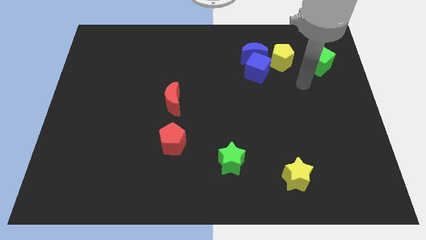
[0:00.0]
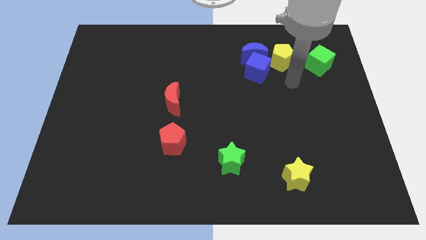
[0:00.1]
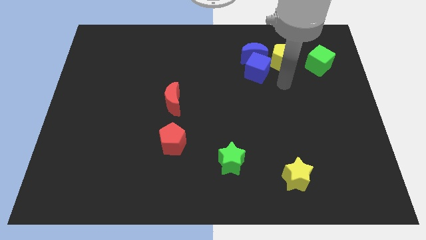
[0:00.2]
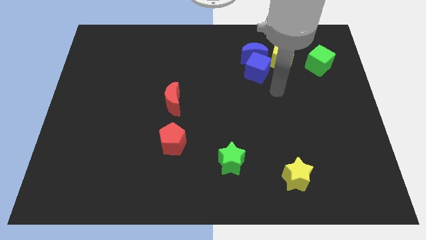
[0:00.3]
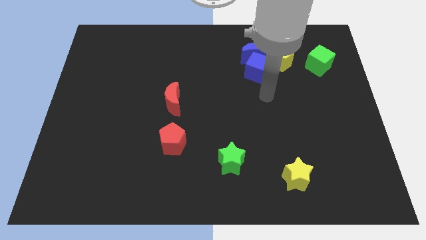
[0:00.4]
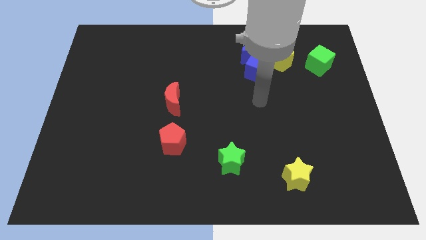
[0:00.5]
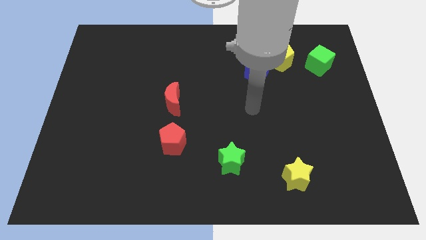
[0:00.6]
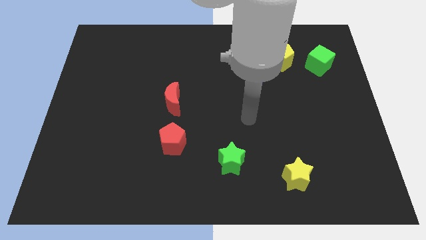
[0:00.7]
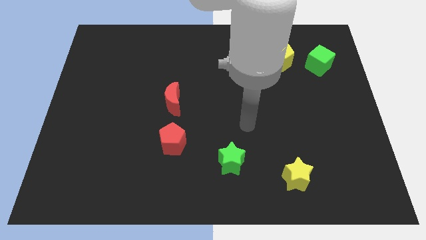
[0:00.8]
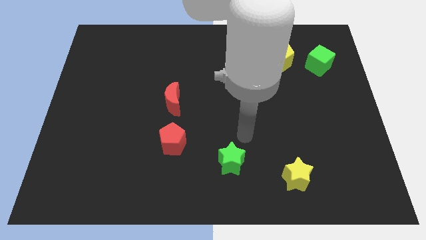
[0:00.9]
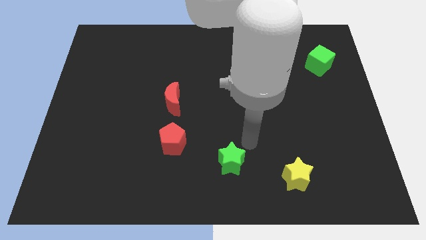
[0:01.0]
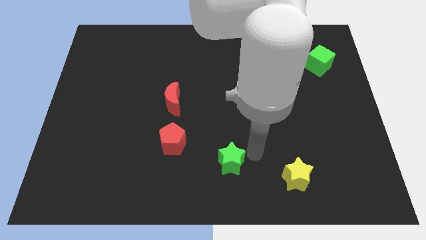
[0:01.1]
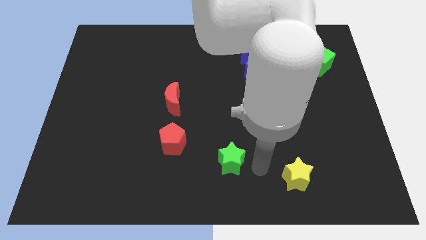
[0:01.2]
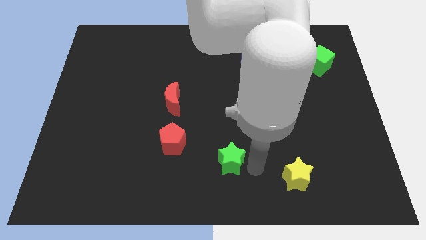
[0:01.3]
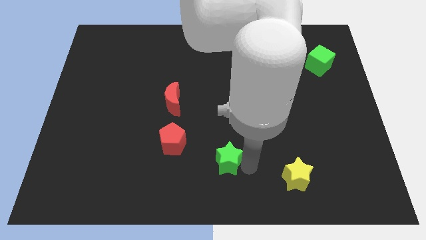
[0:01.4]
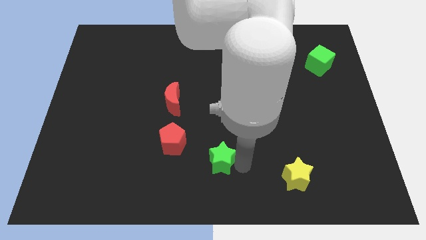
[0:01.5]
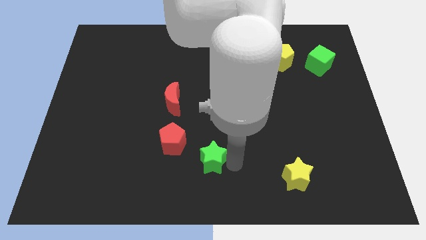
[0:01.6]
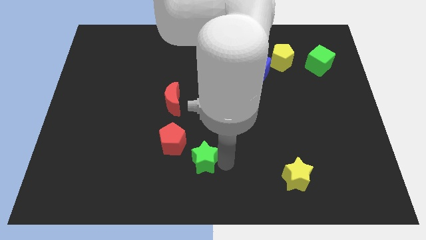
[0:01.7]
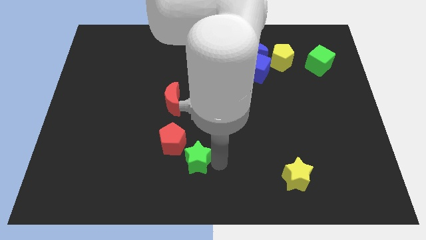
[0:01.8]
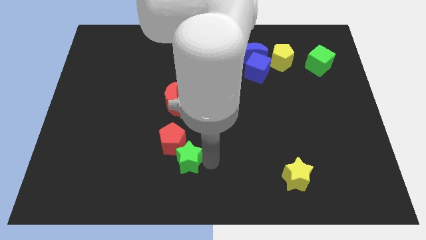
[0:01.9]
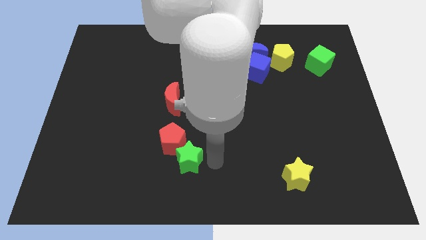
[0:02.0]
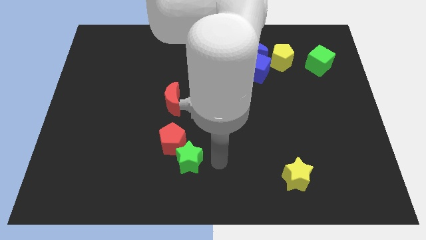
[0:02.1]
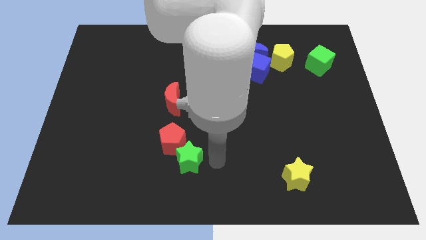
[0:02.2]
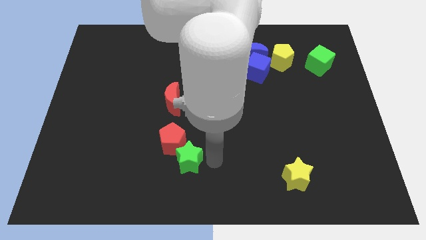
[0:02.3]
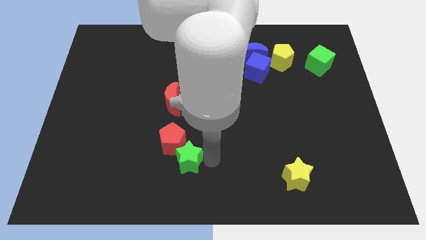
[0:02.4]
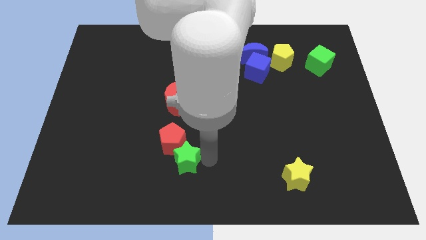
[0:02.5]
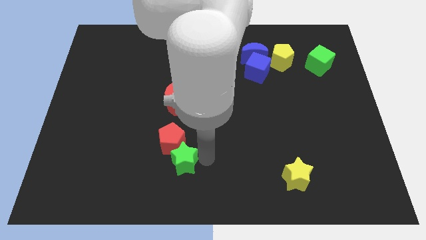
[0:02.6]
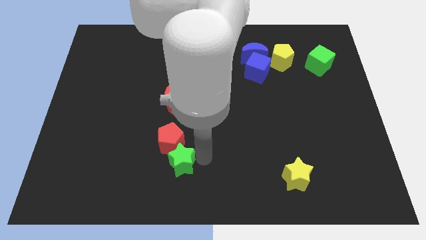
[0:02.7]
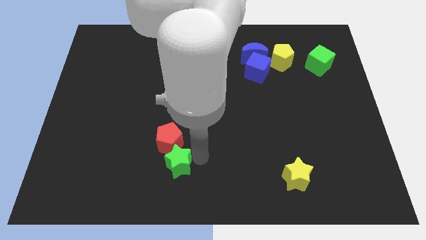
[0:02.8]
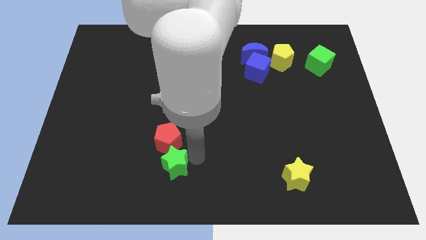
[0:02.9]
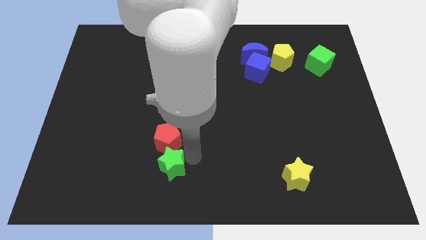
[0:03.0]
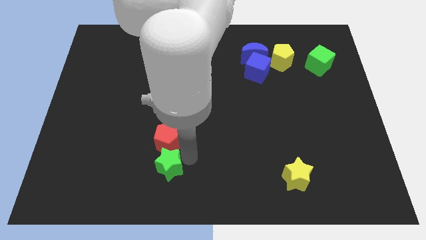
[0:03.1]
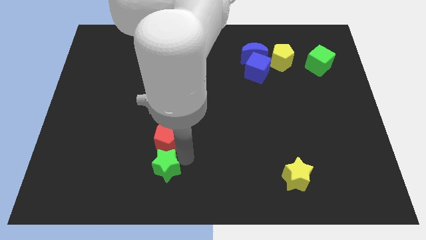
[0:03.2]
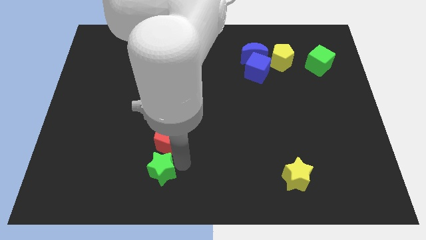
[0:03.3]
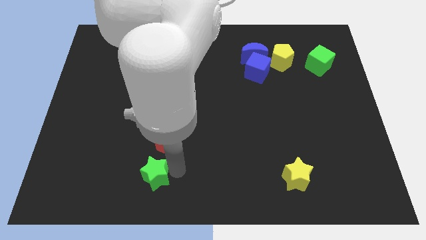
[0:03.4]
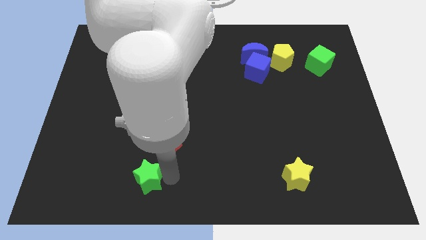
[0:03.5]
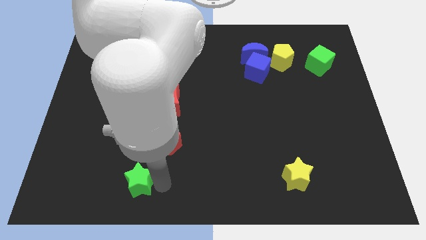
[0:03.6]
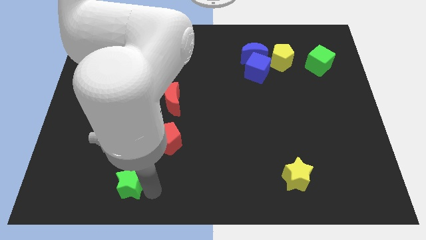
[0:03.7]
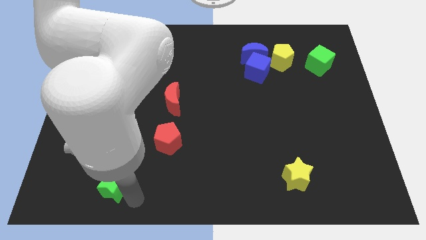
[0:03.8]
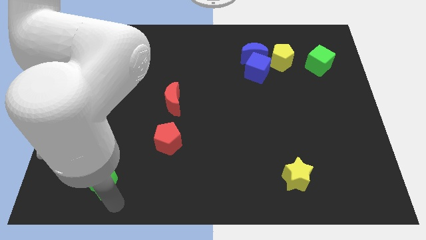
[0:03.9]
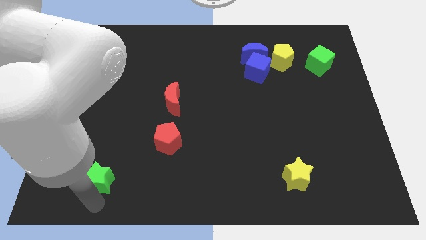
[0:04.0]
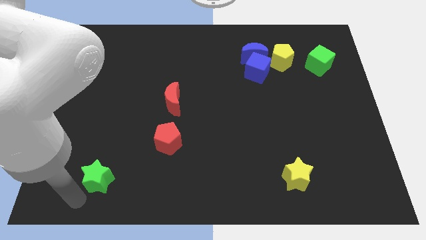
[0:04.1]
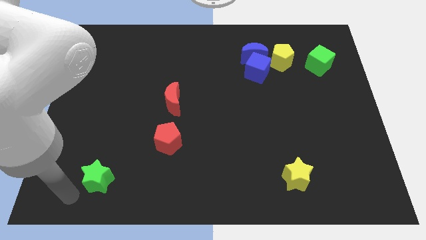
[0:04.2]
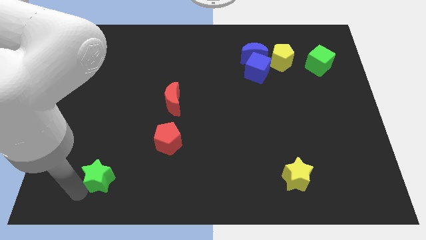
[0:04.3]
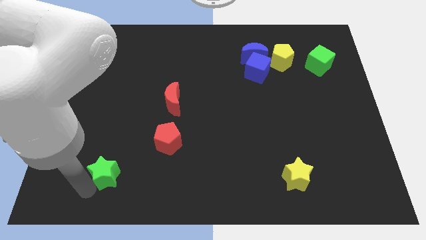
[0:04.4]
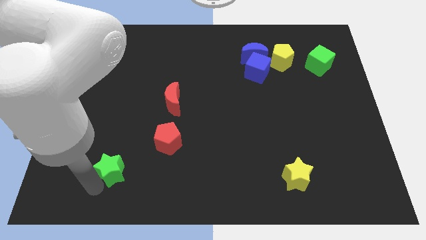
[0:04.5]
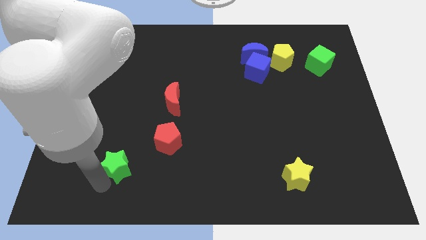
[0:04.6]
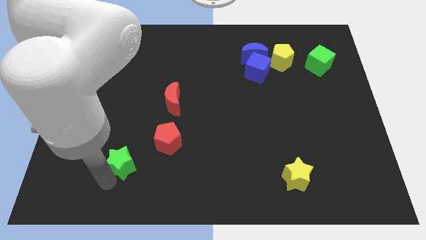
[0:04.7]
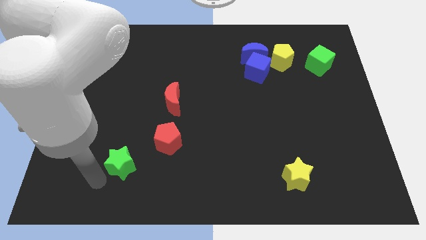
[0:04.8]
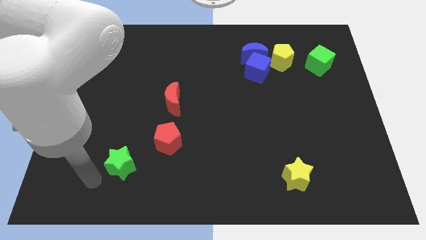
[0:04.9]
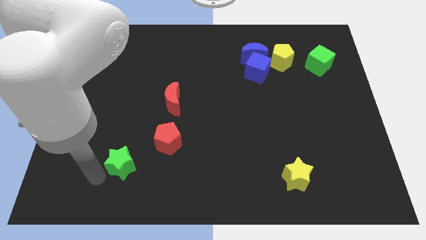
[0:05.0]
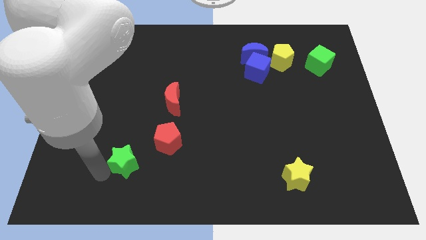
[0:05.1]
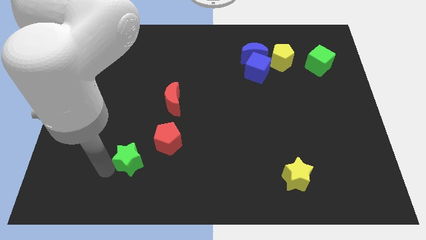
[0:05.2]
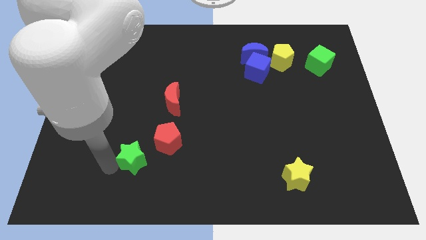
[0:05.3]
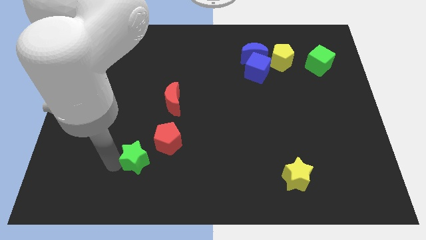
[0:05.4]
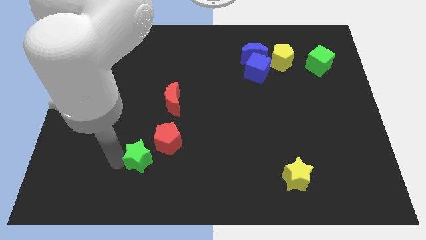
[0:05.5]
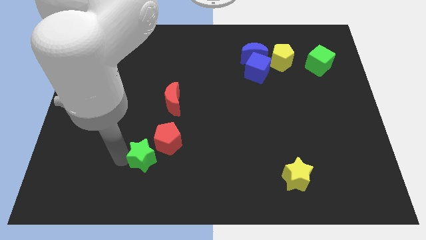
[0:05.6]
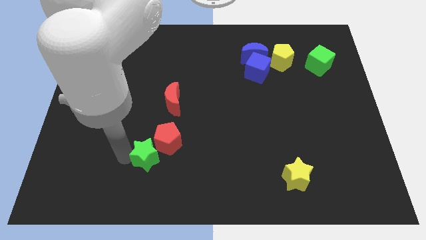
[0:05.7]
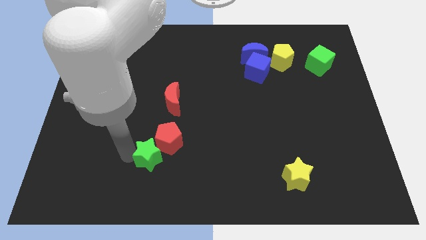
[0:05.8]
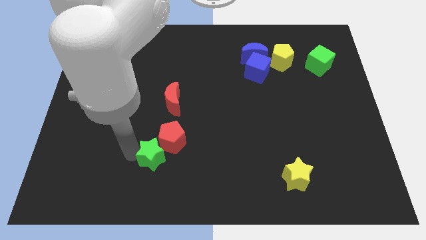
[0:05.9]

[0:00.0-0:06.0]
put the green star to the bottom side of the red moon

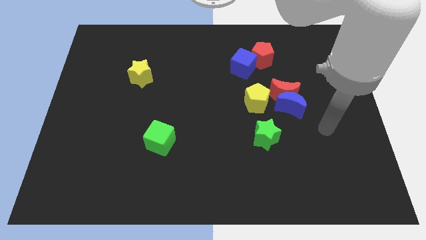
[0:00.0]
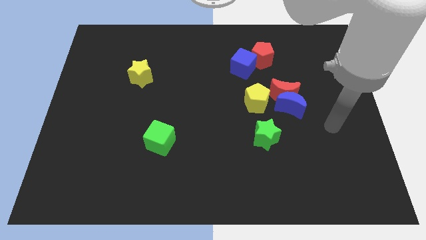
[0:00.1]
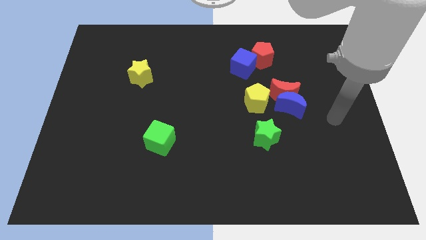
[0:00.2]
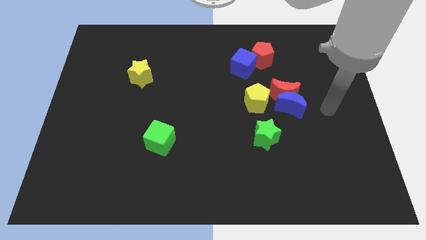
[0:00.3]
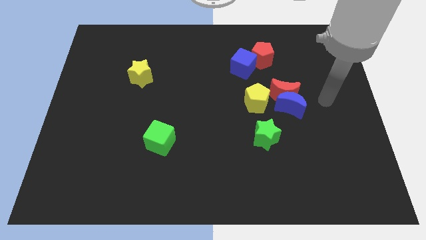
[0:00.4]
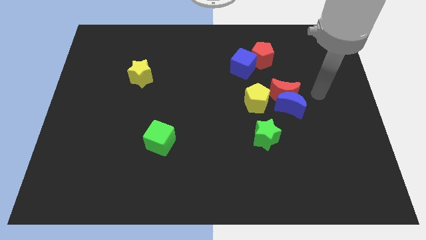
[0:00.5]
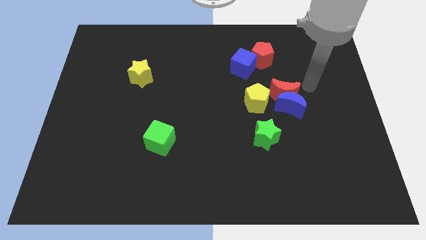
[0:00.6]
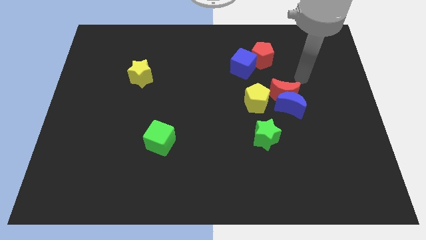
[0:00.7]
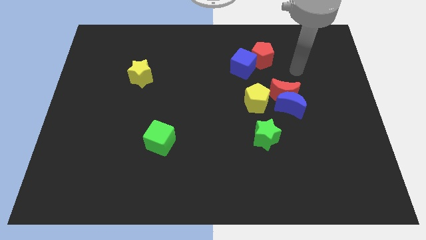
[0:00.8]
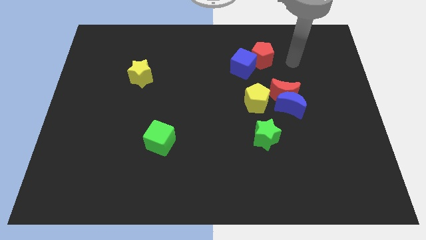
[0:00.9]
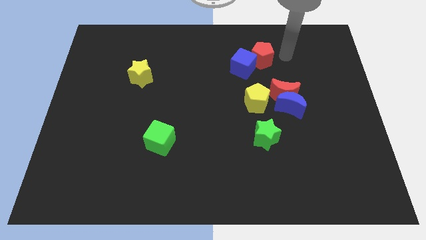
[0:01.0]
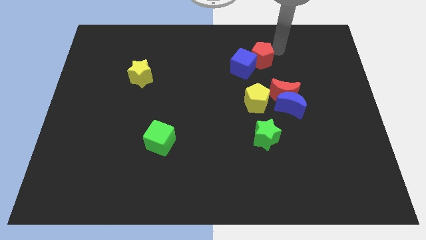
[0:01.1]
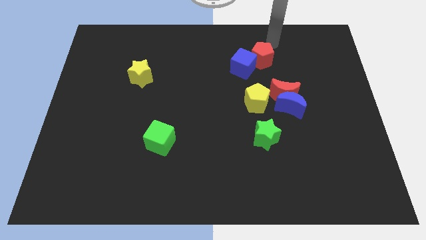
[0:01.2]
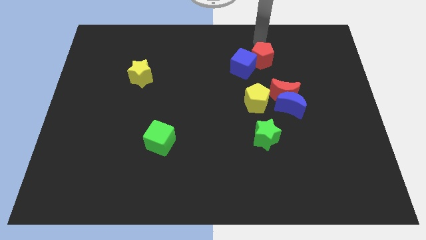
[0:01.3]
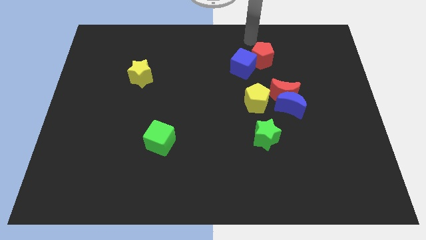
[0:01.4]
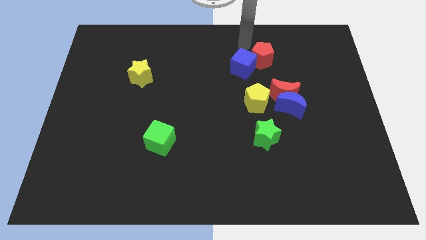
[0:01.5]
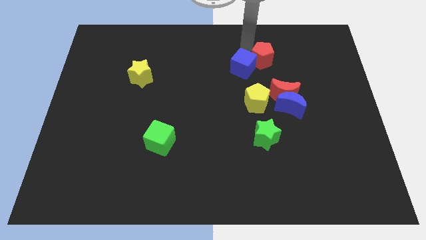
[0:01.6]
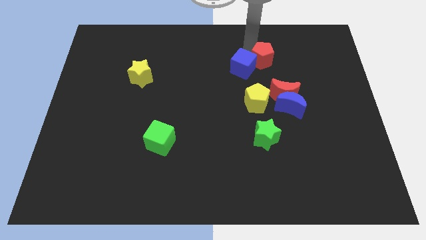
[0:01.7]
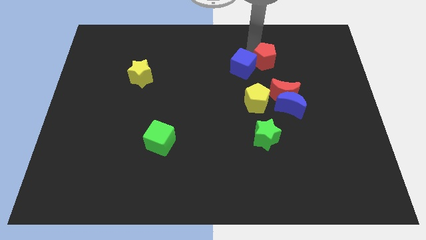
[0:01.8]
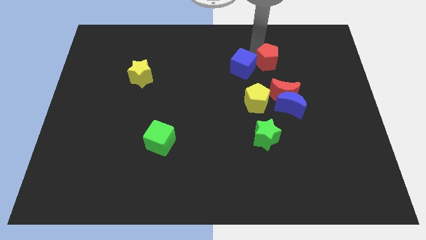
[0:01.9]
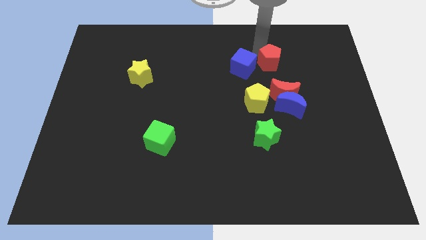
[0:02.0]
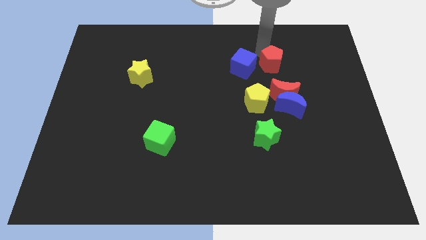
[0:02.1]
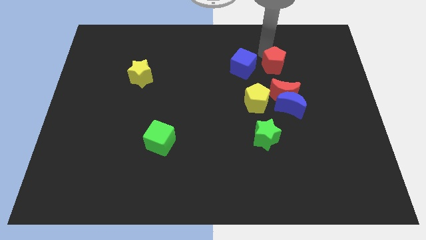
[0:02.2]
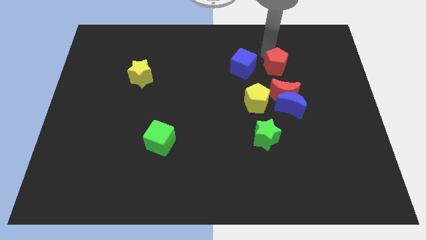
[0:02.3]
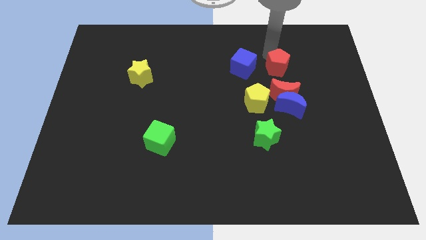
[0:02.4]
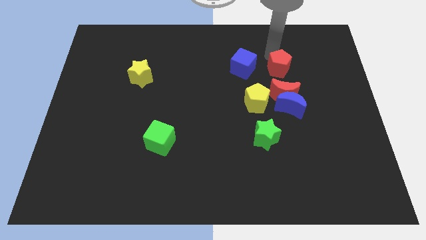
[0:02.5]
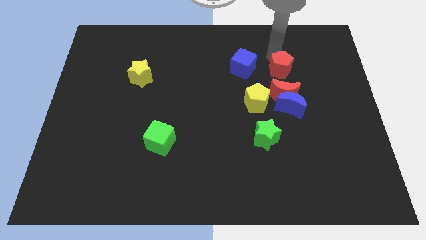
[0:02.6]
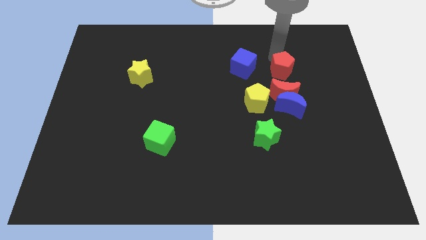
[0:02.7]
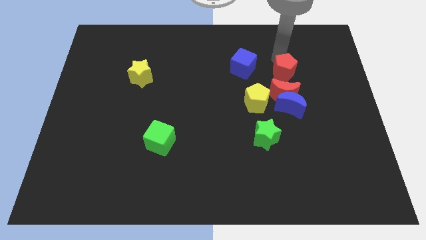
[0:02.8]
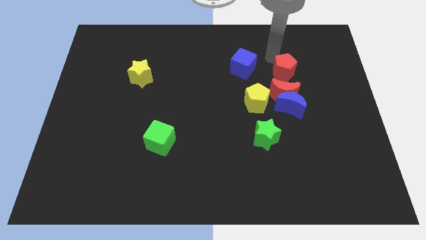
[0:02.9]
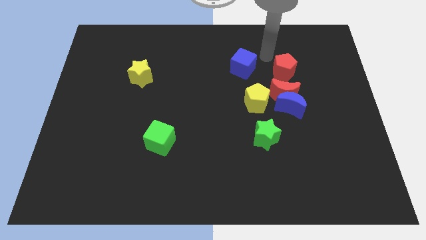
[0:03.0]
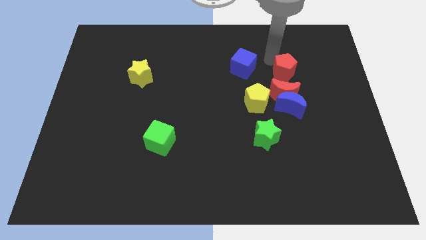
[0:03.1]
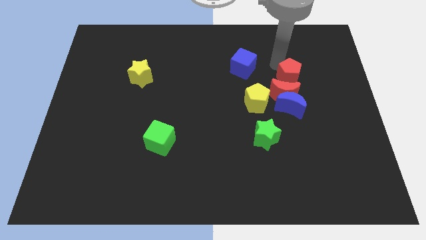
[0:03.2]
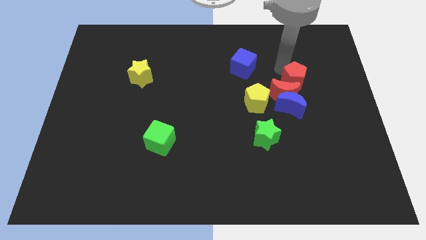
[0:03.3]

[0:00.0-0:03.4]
push the red pentagon diagonally up and to the right of the blue moon
